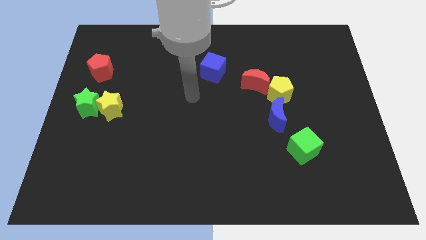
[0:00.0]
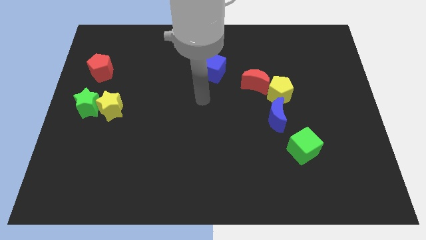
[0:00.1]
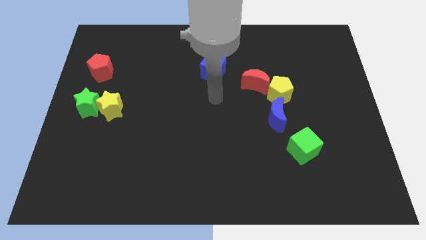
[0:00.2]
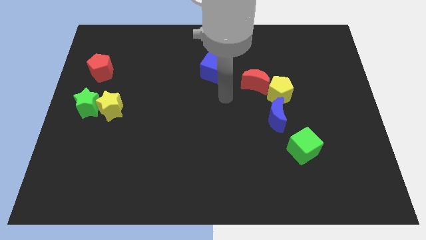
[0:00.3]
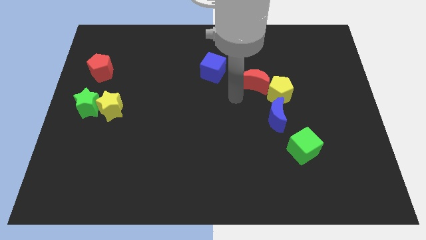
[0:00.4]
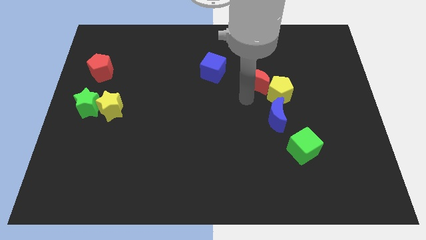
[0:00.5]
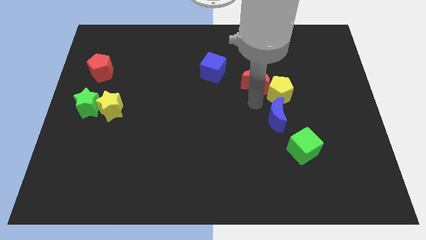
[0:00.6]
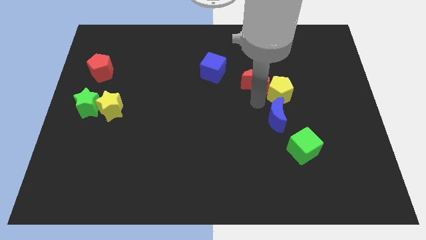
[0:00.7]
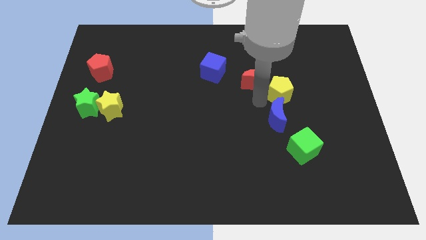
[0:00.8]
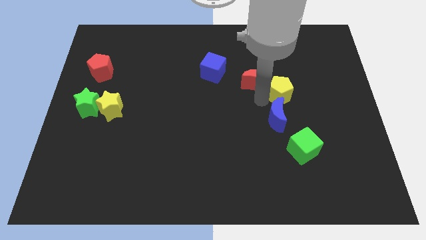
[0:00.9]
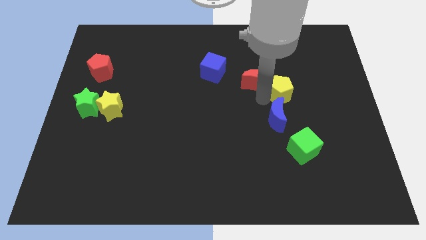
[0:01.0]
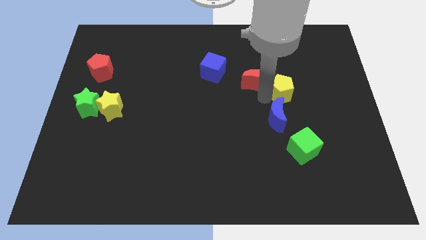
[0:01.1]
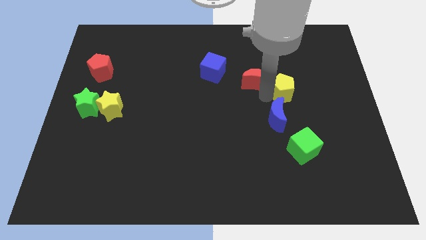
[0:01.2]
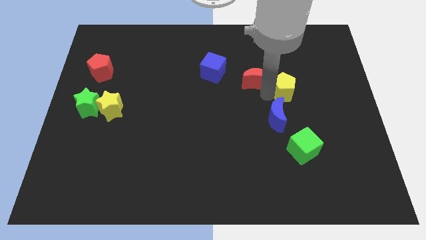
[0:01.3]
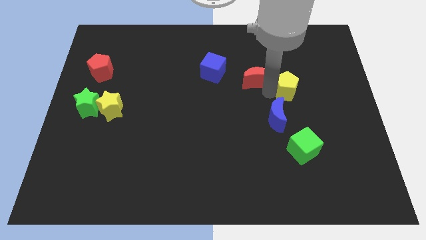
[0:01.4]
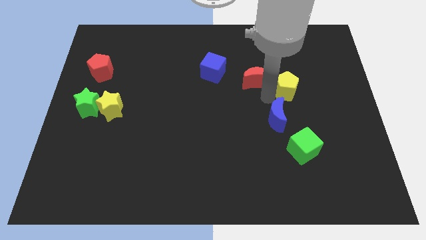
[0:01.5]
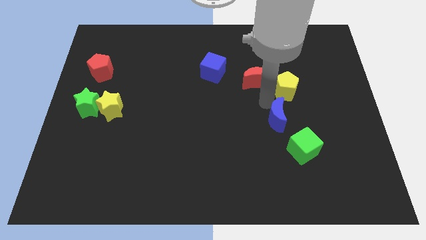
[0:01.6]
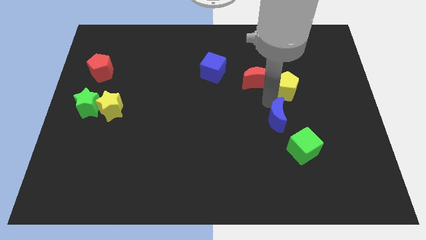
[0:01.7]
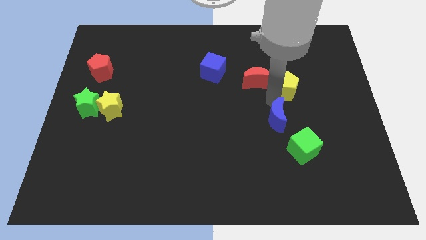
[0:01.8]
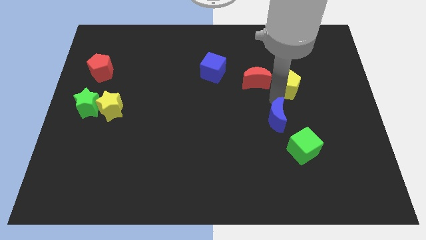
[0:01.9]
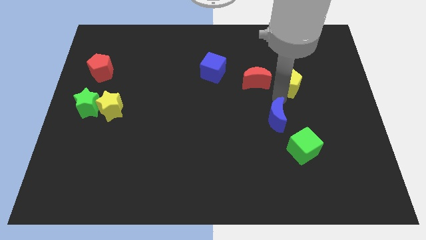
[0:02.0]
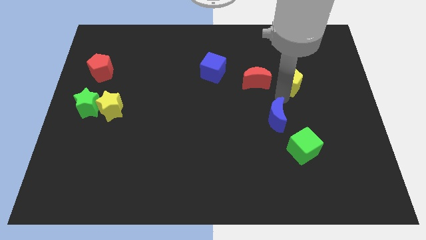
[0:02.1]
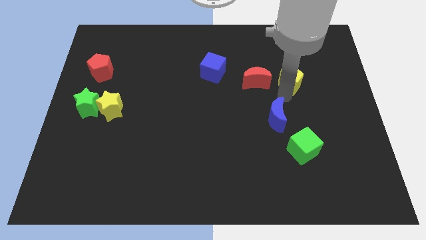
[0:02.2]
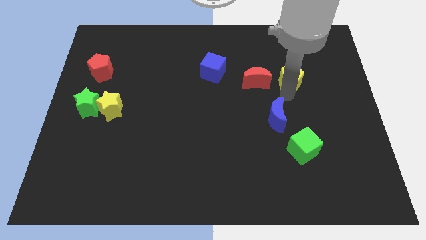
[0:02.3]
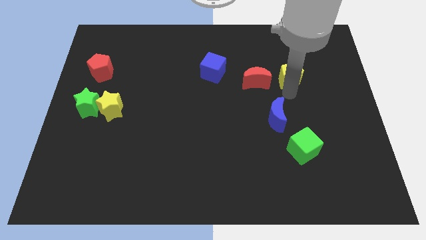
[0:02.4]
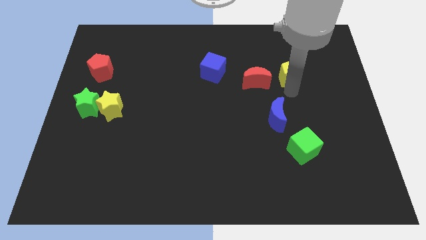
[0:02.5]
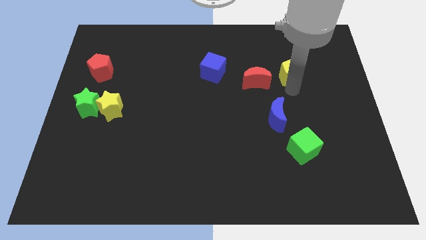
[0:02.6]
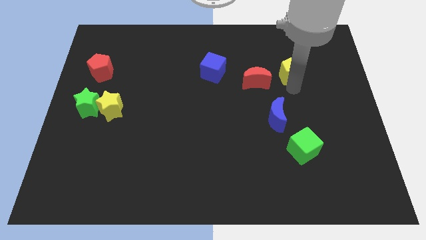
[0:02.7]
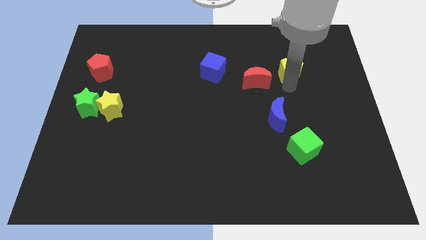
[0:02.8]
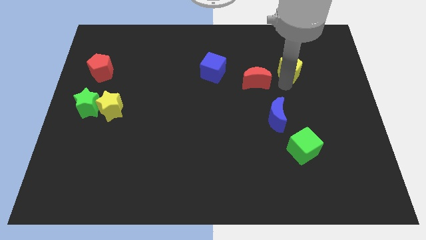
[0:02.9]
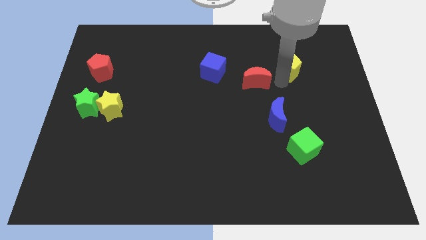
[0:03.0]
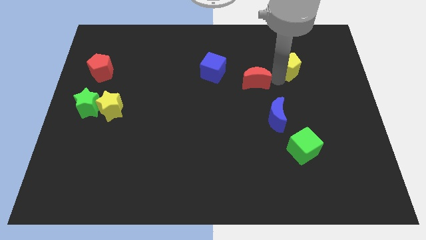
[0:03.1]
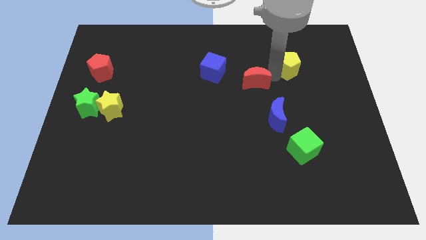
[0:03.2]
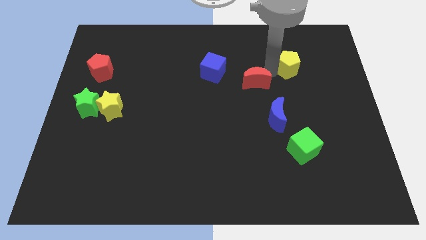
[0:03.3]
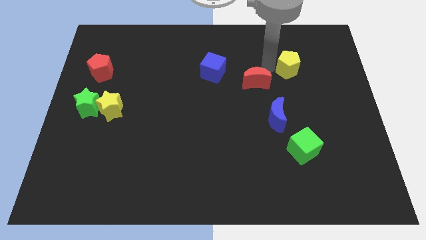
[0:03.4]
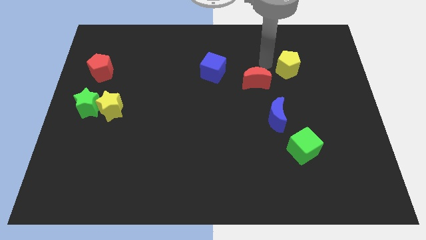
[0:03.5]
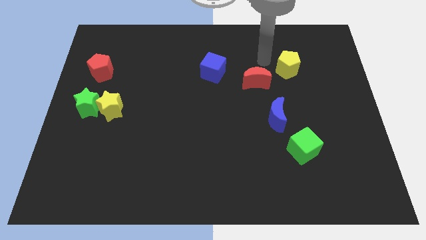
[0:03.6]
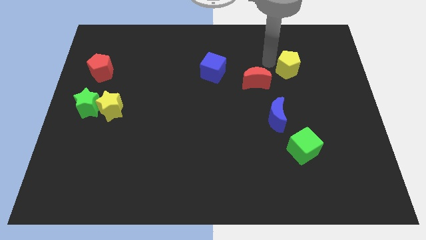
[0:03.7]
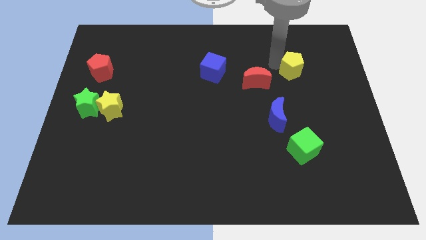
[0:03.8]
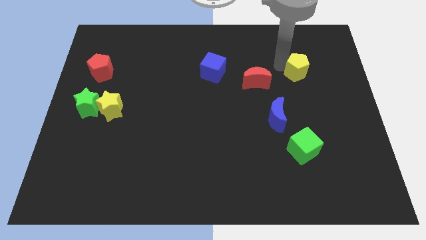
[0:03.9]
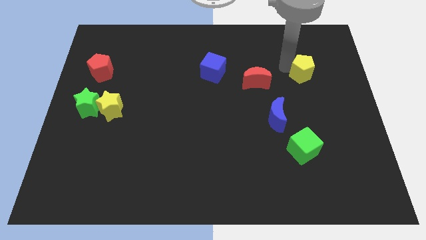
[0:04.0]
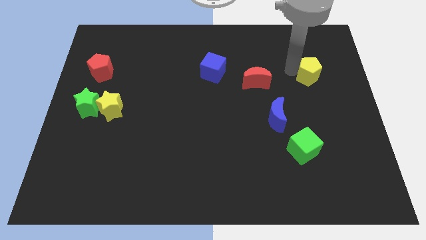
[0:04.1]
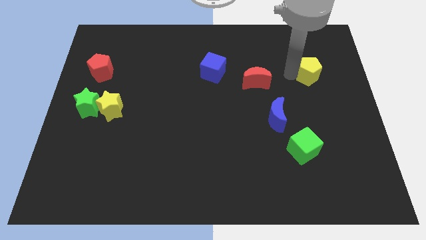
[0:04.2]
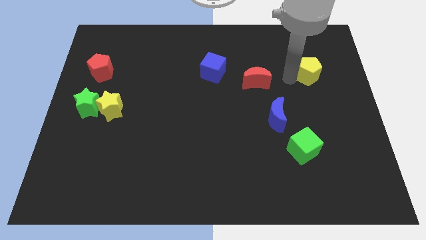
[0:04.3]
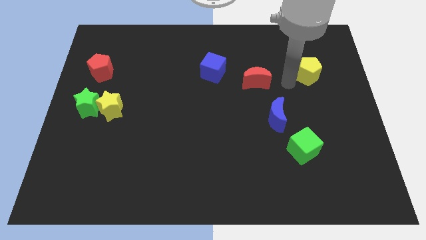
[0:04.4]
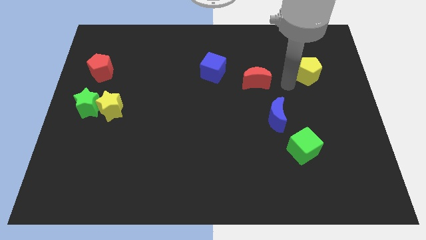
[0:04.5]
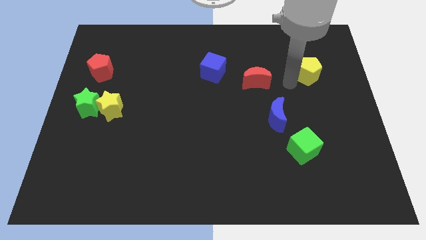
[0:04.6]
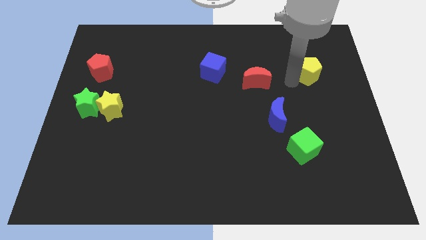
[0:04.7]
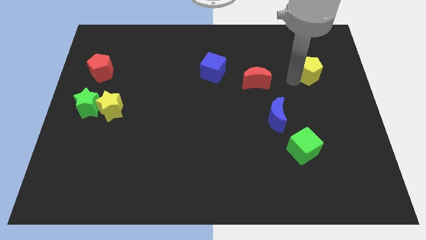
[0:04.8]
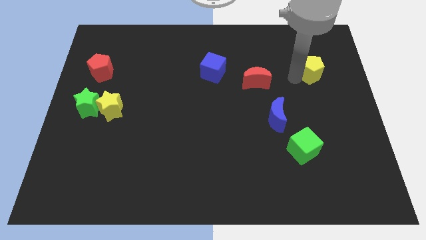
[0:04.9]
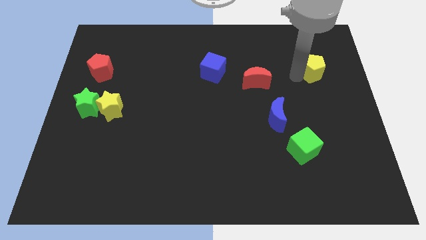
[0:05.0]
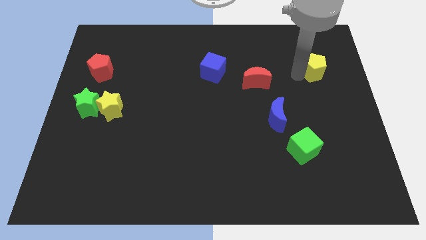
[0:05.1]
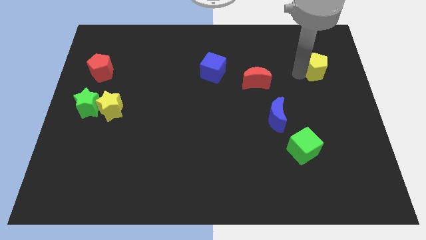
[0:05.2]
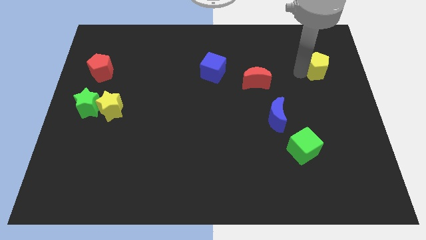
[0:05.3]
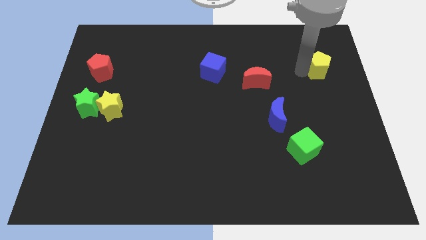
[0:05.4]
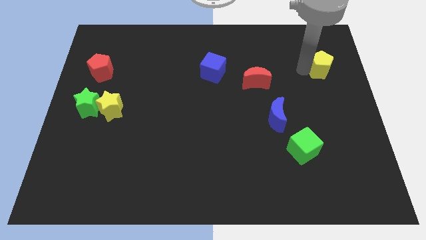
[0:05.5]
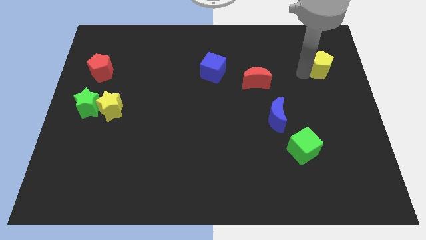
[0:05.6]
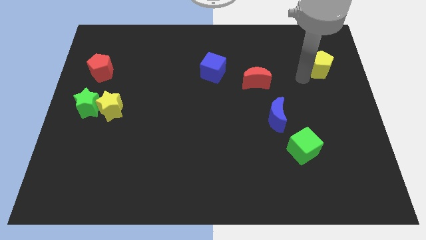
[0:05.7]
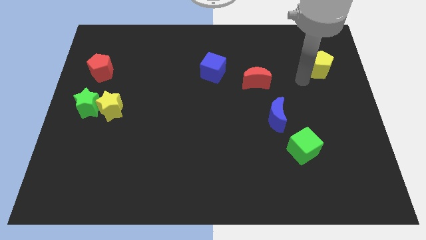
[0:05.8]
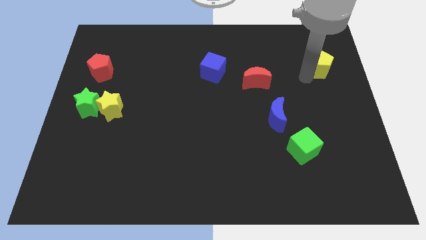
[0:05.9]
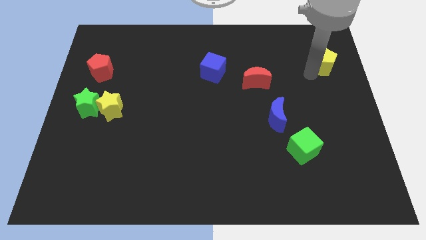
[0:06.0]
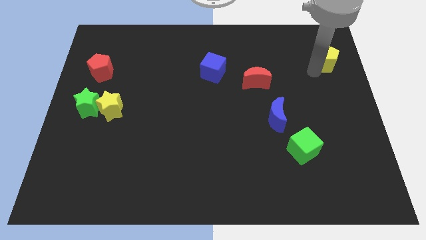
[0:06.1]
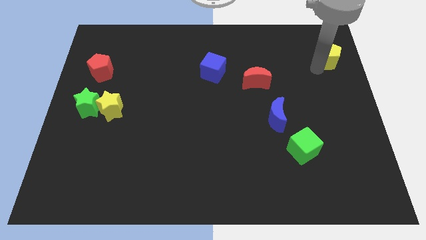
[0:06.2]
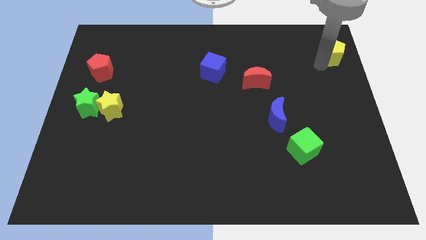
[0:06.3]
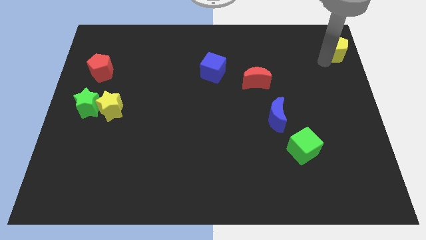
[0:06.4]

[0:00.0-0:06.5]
move the yellow pentagon to the top right corner
